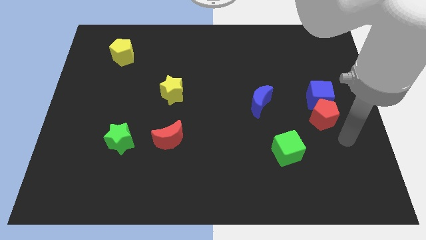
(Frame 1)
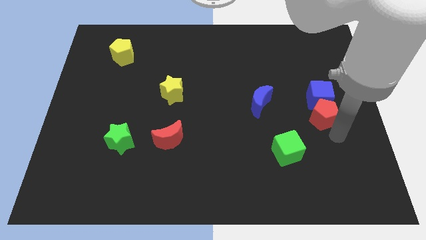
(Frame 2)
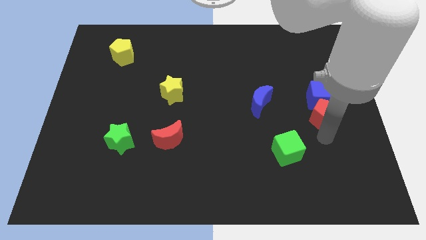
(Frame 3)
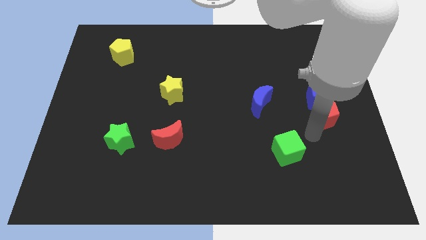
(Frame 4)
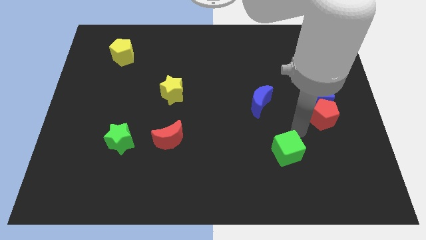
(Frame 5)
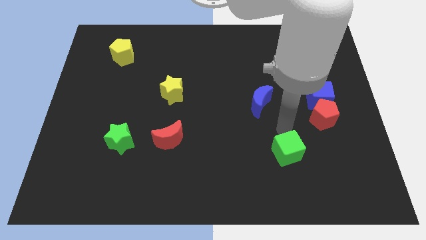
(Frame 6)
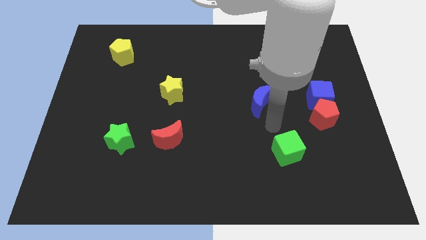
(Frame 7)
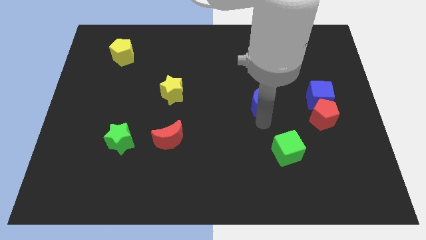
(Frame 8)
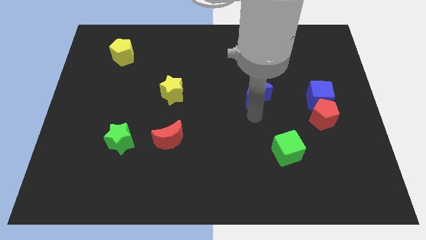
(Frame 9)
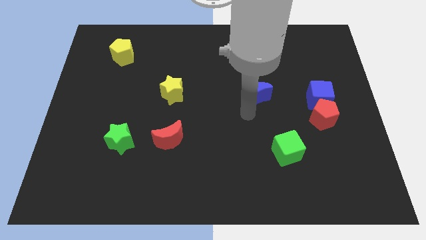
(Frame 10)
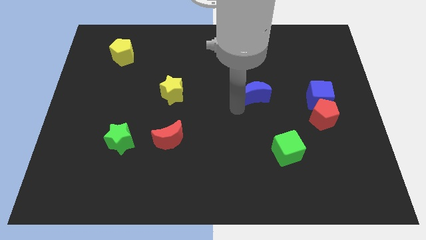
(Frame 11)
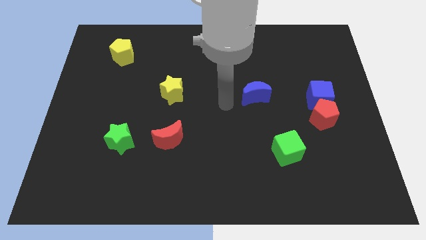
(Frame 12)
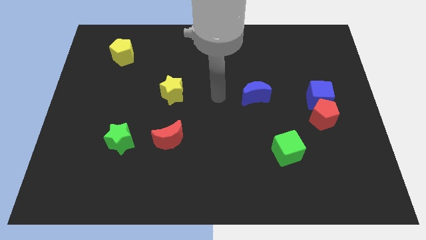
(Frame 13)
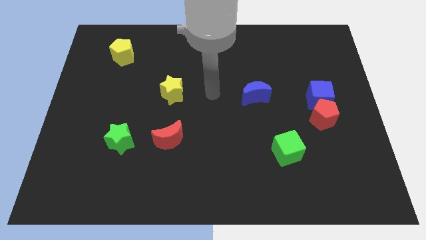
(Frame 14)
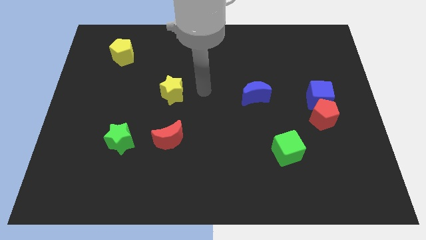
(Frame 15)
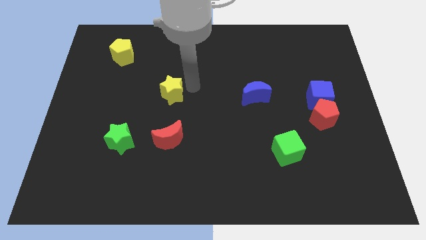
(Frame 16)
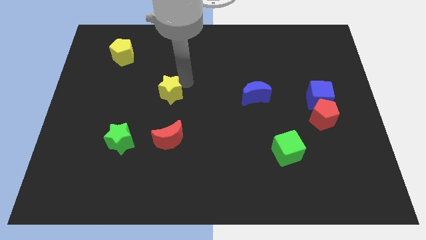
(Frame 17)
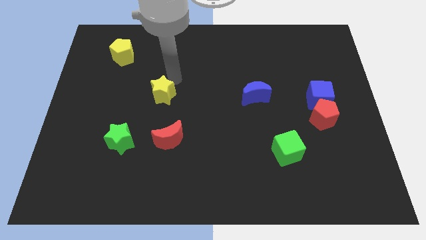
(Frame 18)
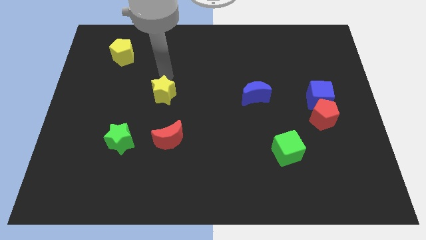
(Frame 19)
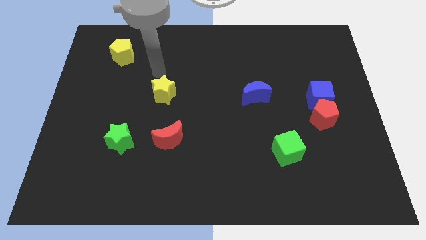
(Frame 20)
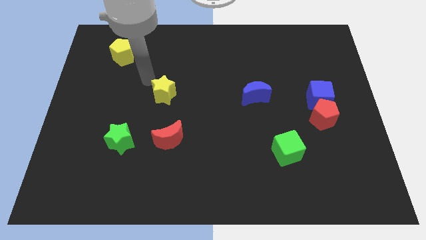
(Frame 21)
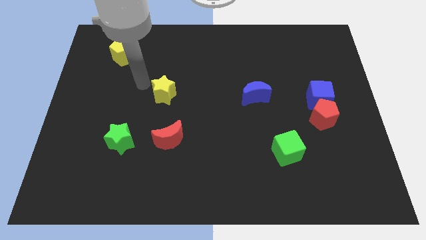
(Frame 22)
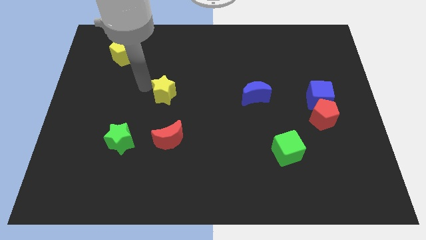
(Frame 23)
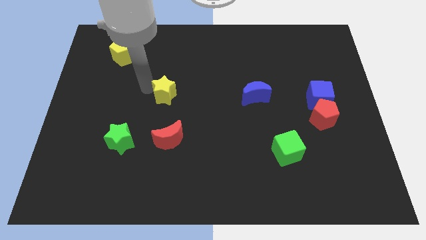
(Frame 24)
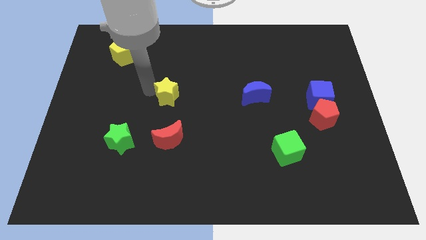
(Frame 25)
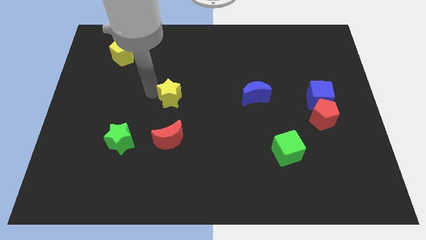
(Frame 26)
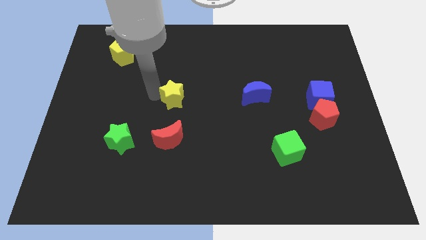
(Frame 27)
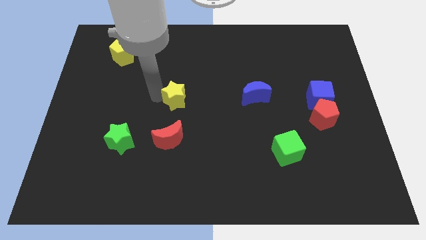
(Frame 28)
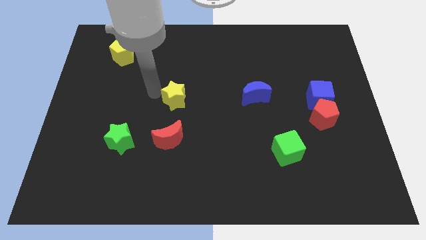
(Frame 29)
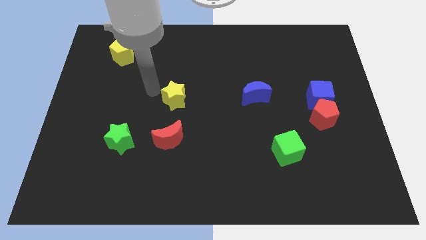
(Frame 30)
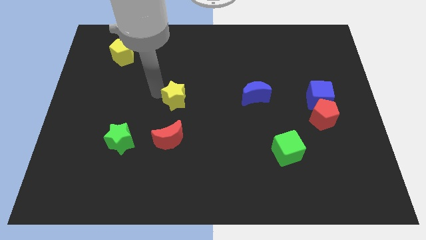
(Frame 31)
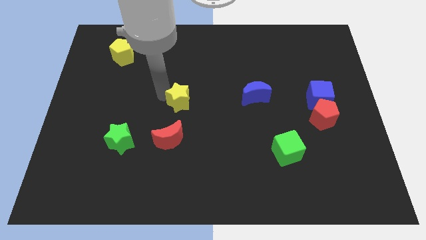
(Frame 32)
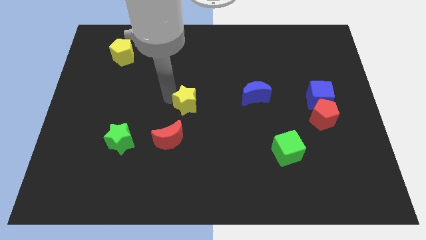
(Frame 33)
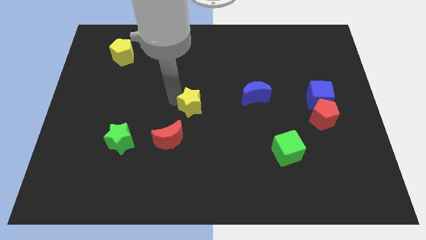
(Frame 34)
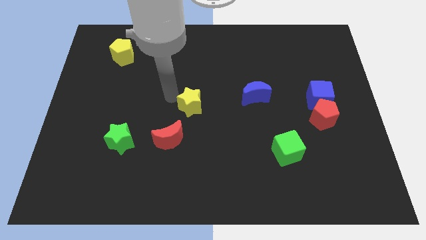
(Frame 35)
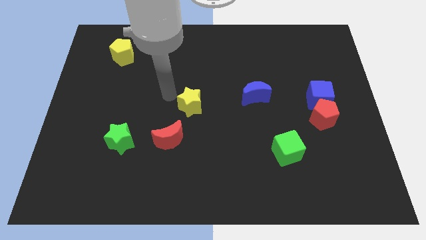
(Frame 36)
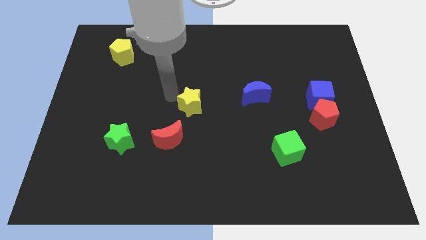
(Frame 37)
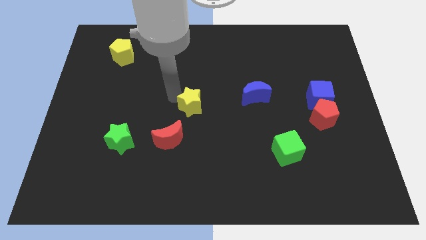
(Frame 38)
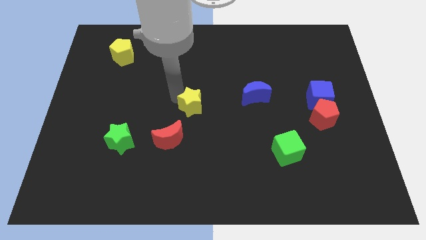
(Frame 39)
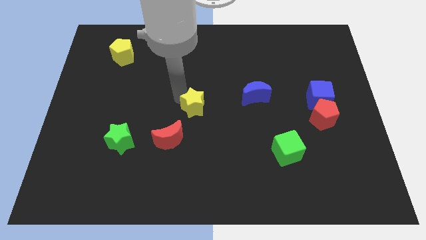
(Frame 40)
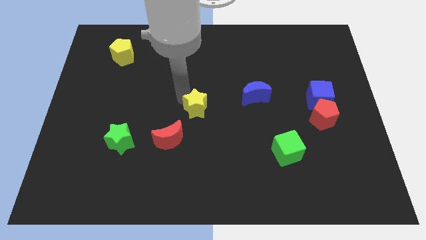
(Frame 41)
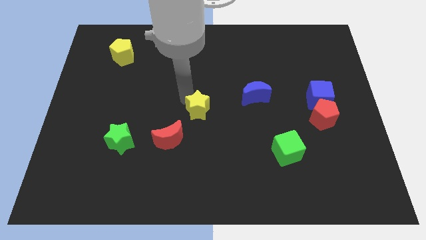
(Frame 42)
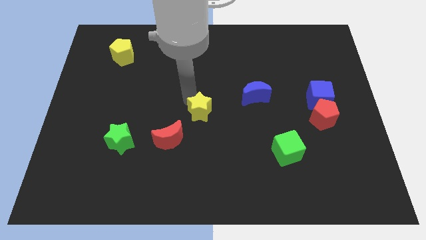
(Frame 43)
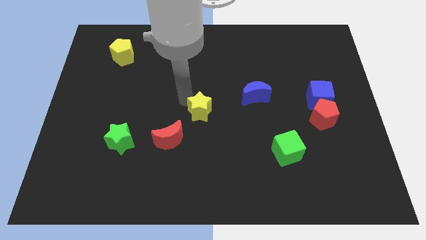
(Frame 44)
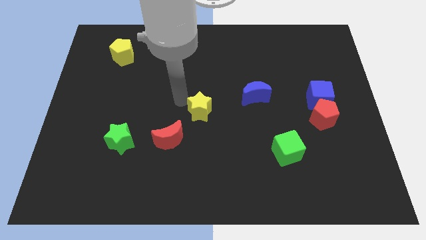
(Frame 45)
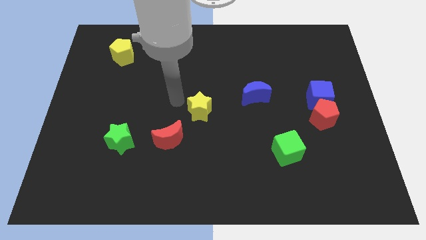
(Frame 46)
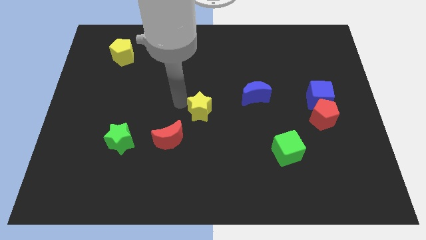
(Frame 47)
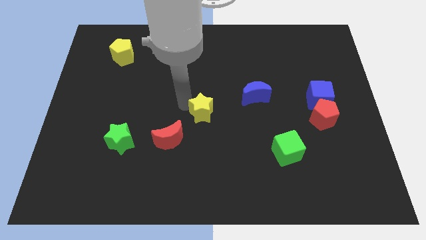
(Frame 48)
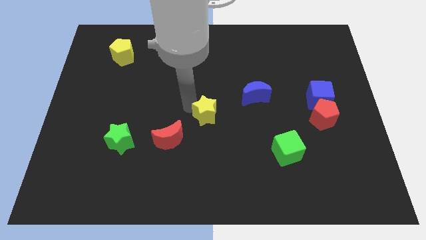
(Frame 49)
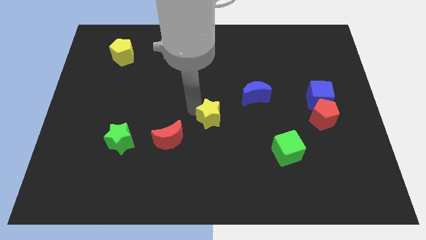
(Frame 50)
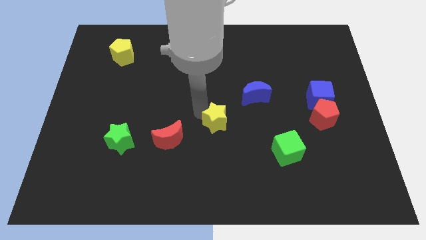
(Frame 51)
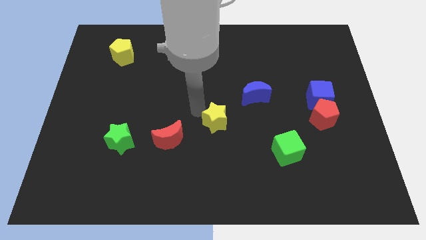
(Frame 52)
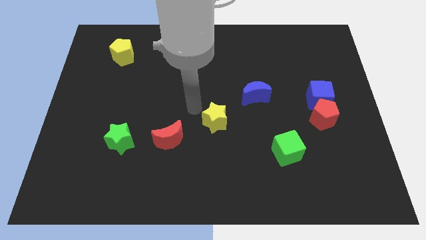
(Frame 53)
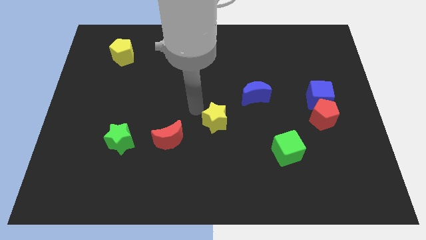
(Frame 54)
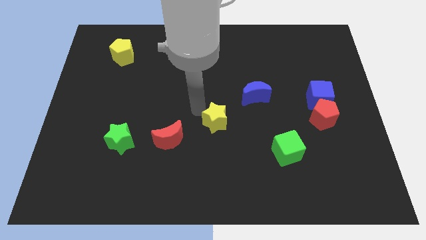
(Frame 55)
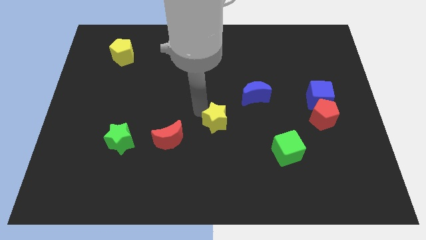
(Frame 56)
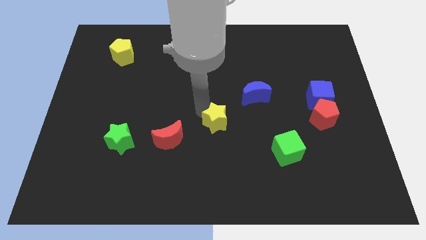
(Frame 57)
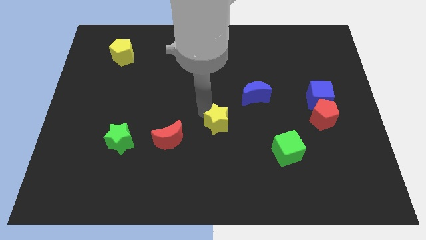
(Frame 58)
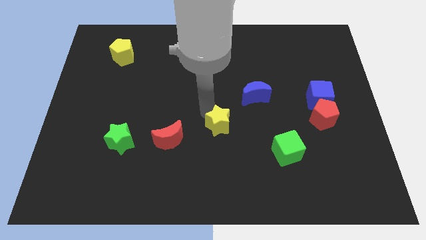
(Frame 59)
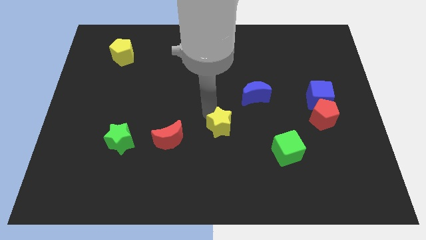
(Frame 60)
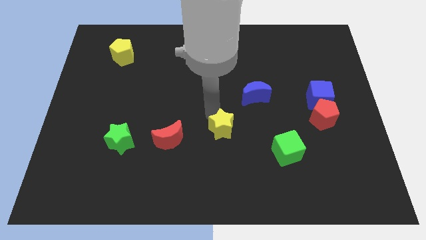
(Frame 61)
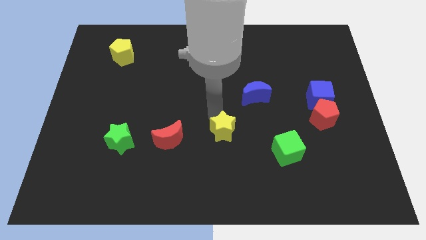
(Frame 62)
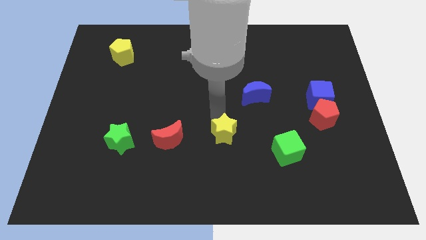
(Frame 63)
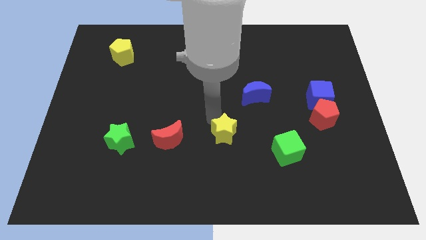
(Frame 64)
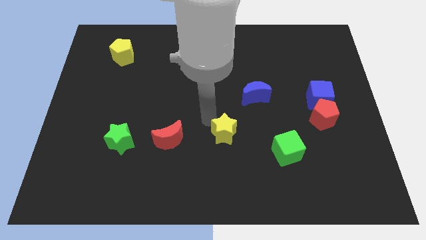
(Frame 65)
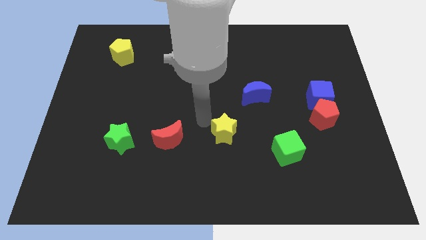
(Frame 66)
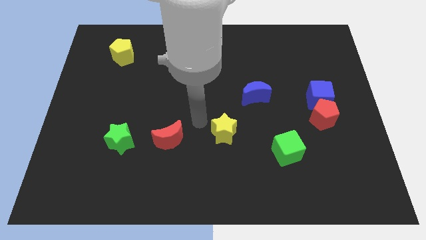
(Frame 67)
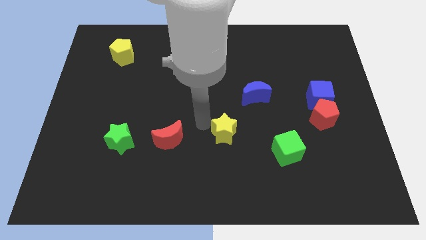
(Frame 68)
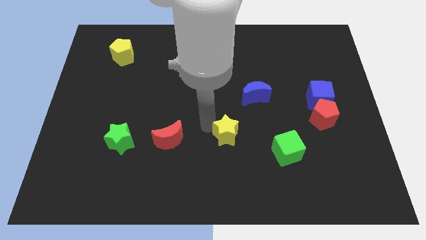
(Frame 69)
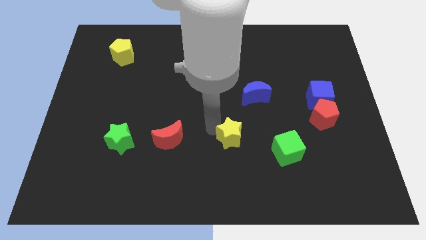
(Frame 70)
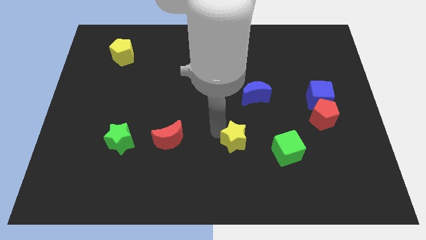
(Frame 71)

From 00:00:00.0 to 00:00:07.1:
push the yellow star down and right

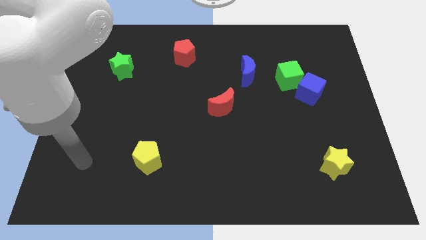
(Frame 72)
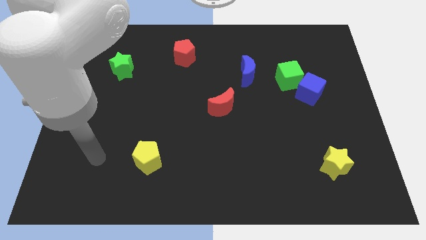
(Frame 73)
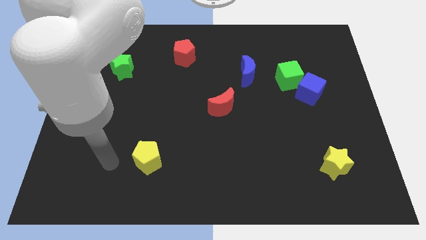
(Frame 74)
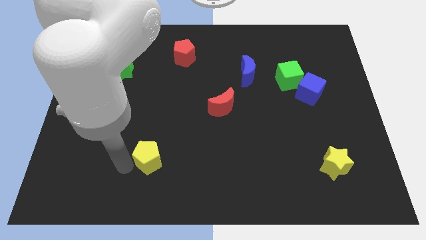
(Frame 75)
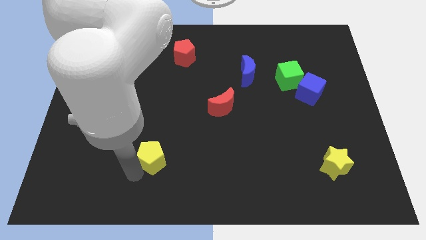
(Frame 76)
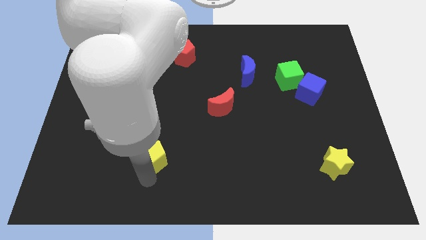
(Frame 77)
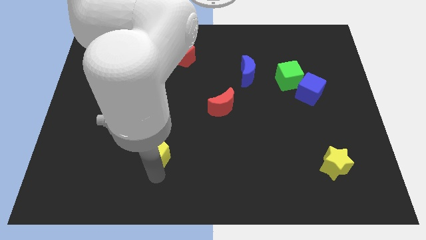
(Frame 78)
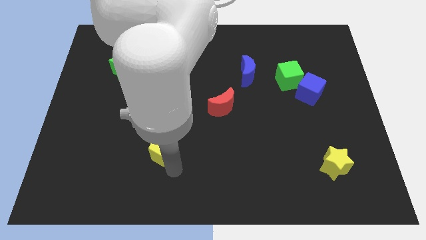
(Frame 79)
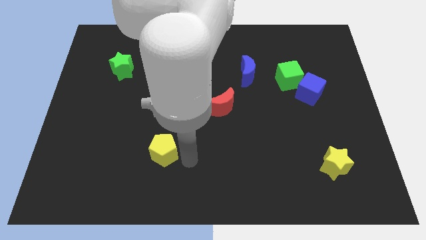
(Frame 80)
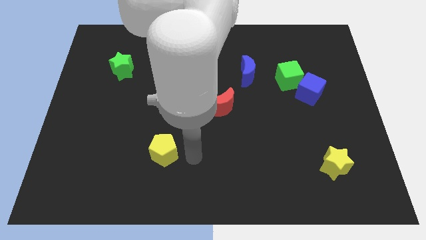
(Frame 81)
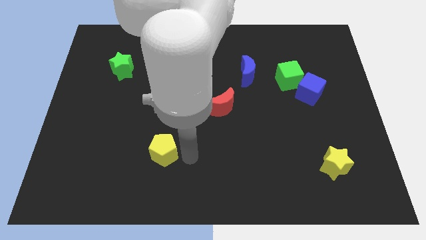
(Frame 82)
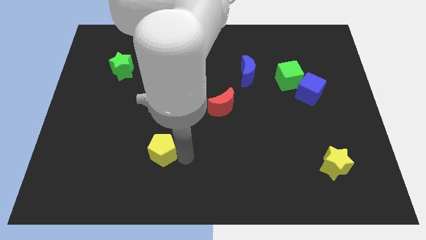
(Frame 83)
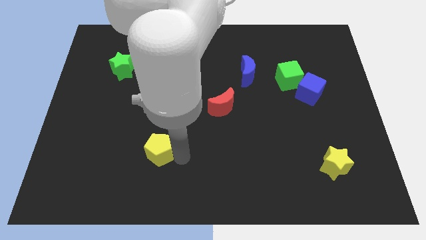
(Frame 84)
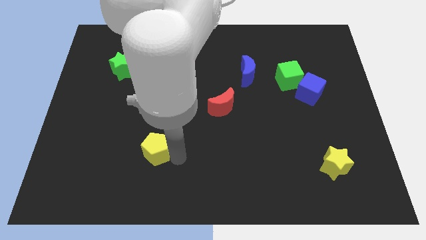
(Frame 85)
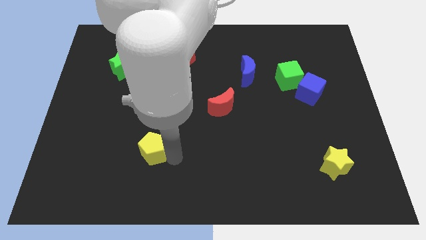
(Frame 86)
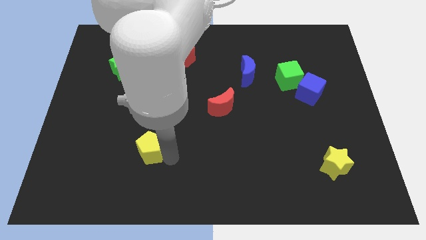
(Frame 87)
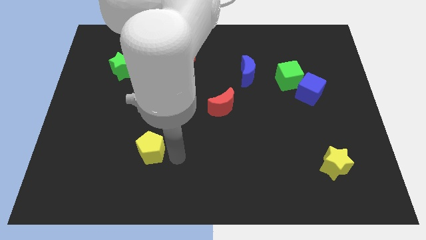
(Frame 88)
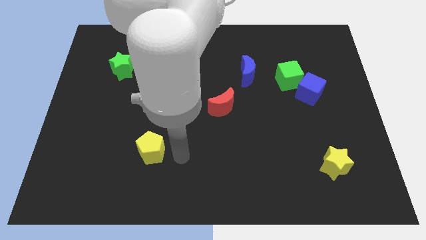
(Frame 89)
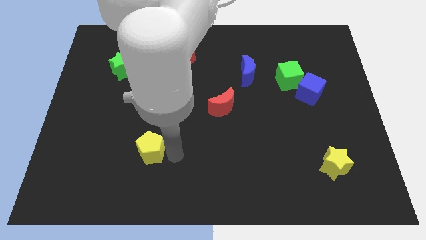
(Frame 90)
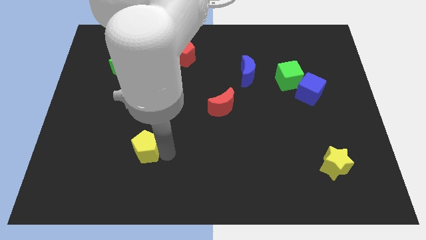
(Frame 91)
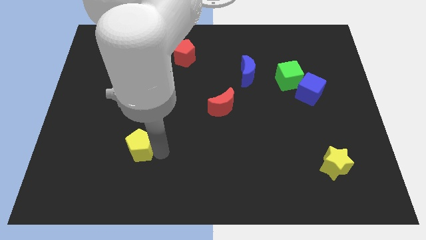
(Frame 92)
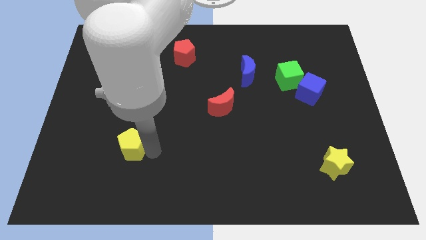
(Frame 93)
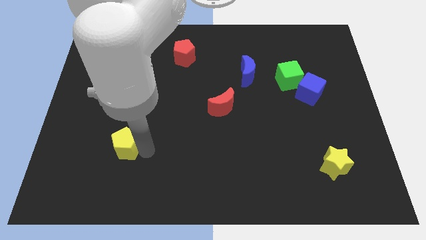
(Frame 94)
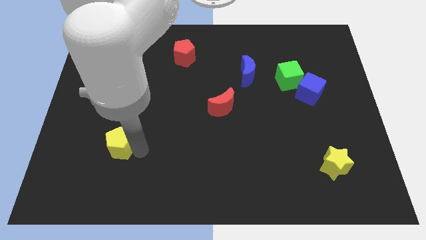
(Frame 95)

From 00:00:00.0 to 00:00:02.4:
slide the yellow pentagon upwards and left somewhat
